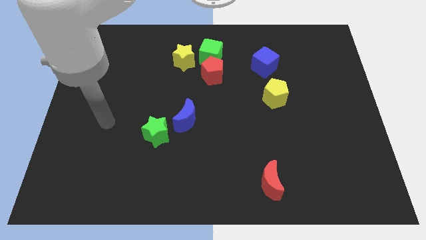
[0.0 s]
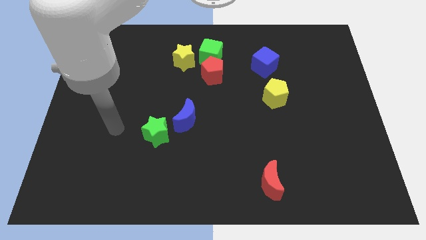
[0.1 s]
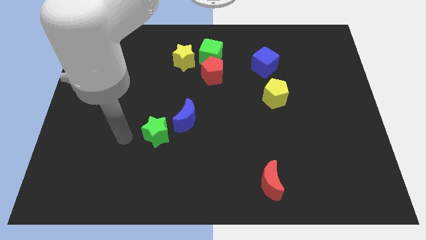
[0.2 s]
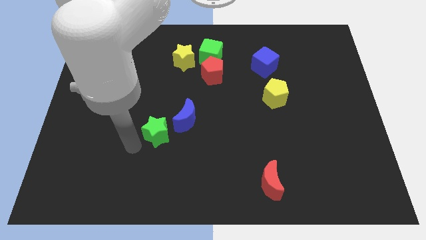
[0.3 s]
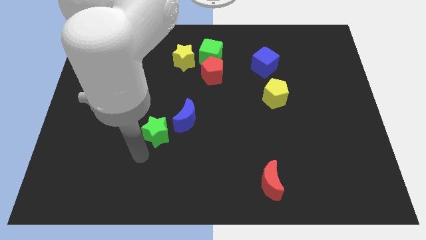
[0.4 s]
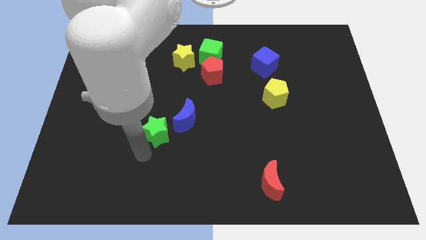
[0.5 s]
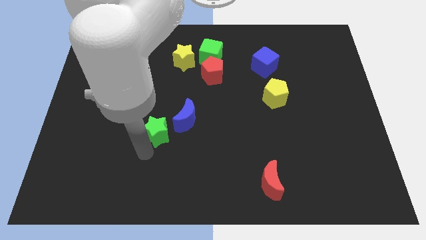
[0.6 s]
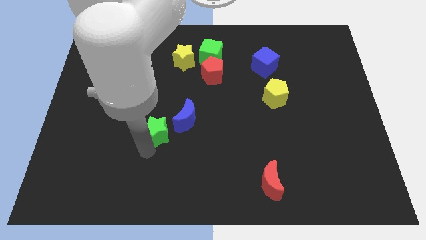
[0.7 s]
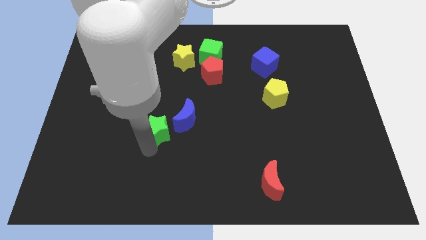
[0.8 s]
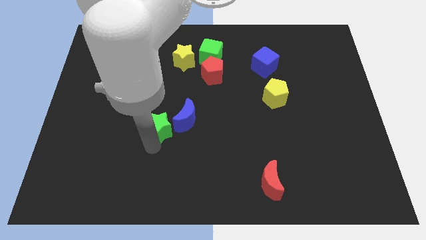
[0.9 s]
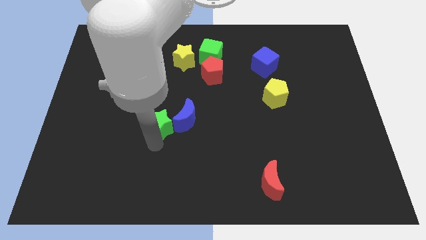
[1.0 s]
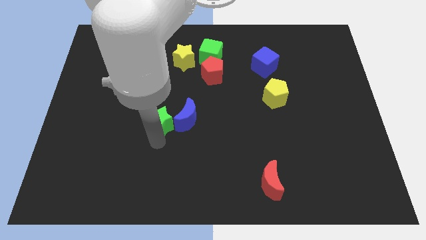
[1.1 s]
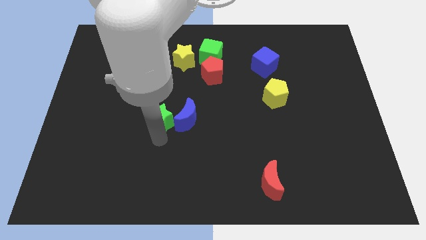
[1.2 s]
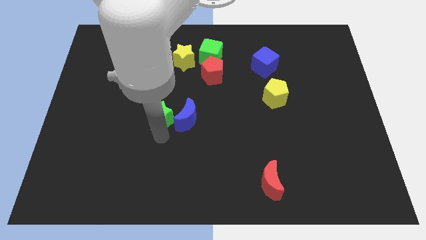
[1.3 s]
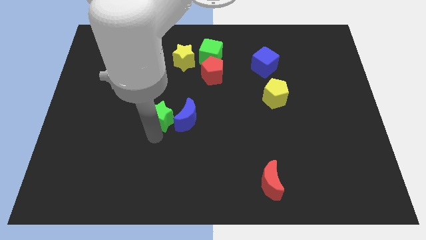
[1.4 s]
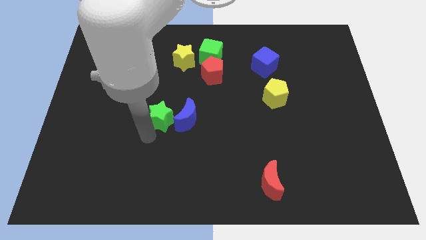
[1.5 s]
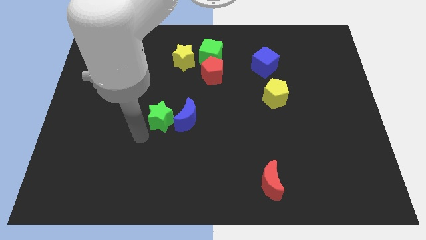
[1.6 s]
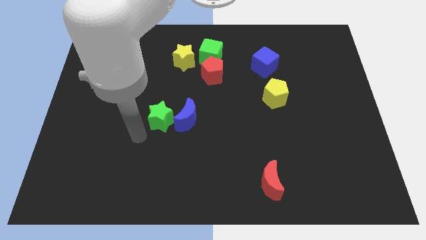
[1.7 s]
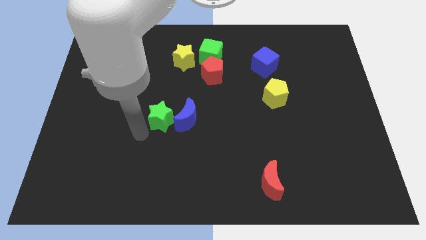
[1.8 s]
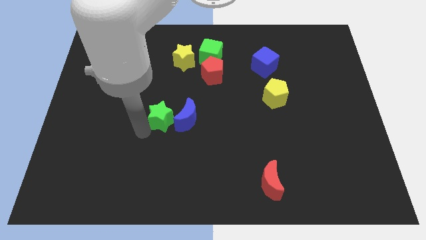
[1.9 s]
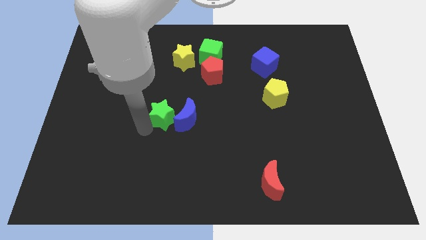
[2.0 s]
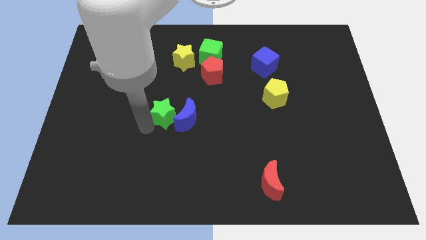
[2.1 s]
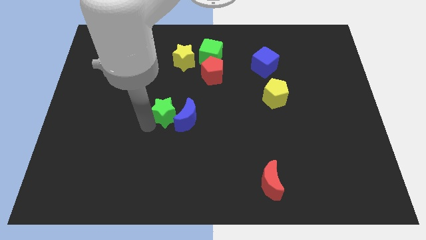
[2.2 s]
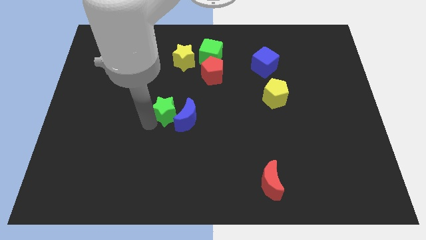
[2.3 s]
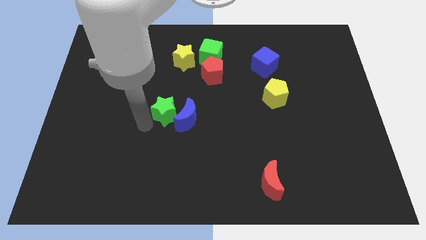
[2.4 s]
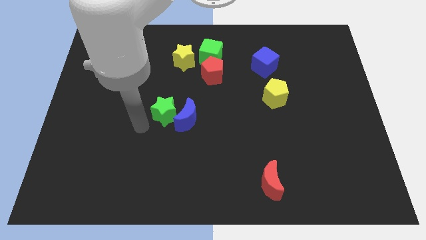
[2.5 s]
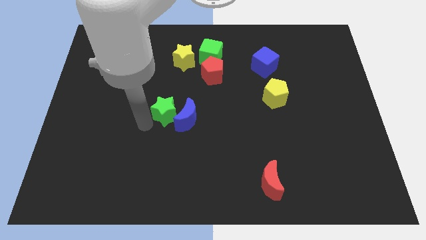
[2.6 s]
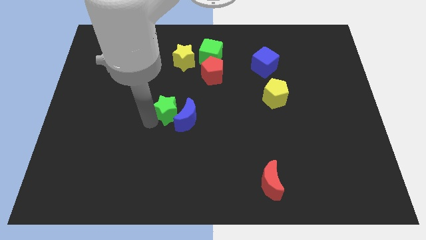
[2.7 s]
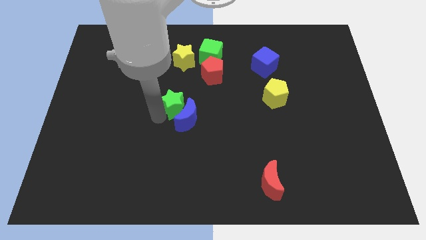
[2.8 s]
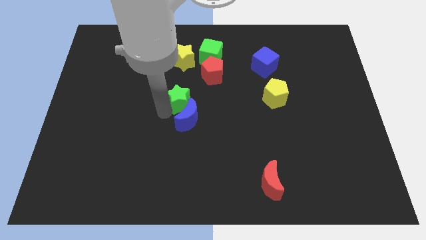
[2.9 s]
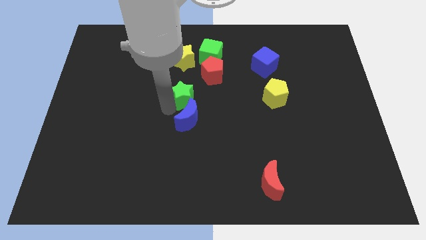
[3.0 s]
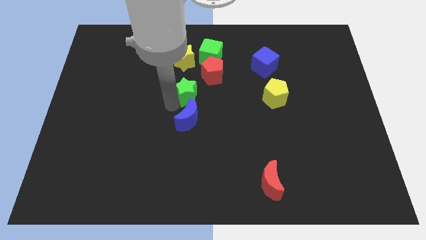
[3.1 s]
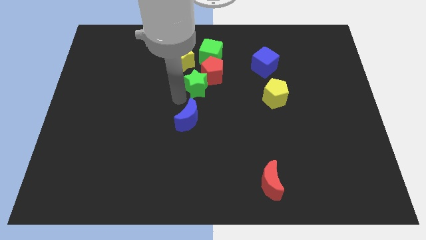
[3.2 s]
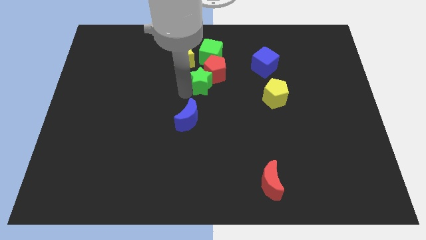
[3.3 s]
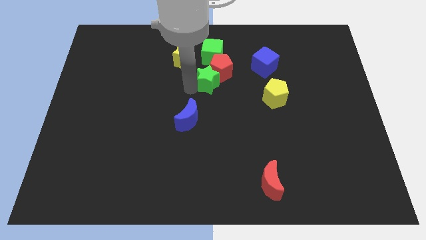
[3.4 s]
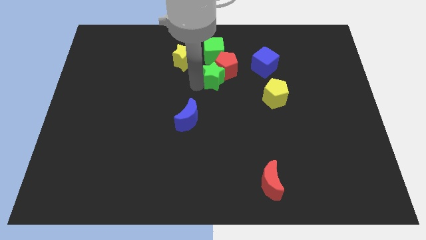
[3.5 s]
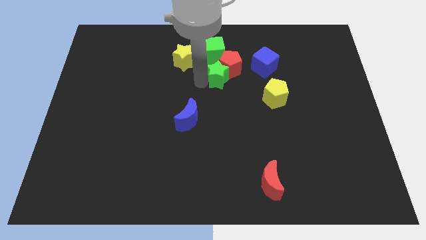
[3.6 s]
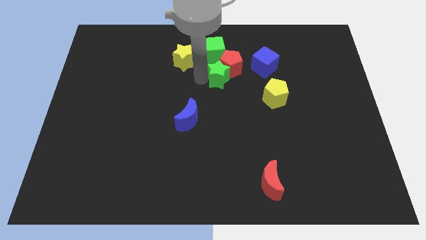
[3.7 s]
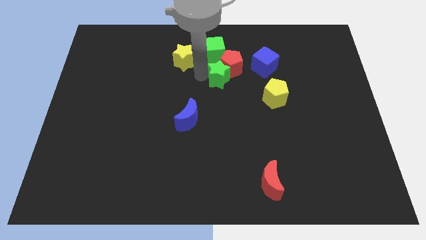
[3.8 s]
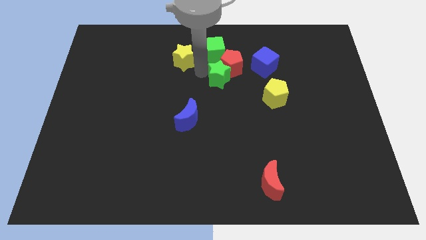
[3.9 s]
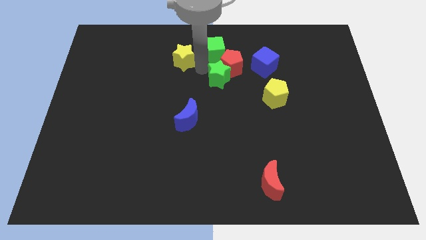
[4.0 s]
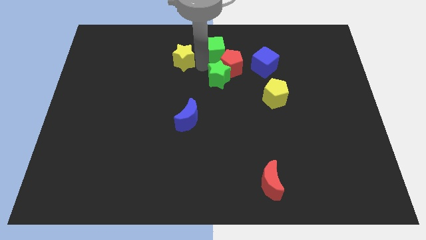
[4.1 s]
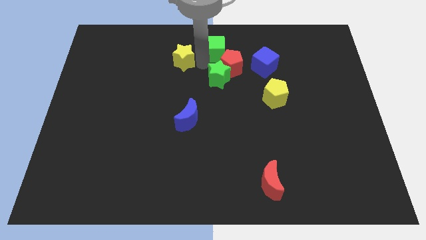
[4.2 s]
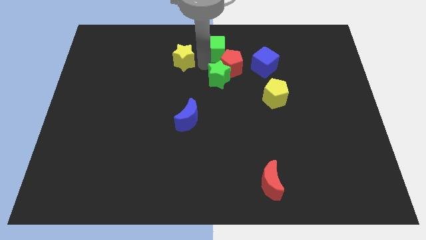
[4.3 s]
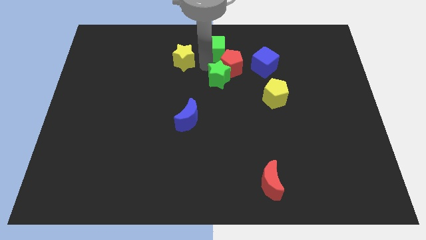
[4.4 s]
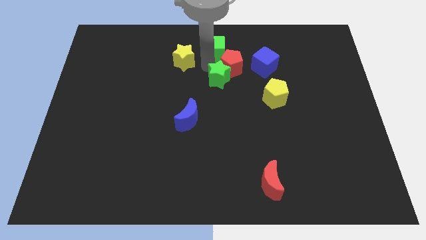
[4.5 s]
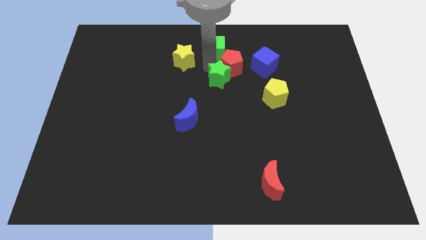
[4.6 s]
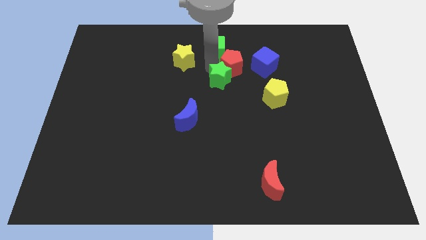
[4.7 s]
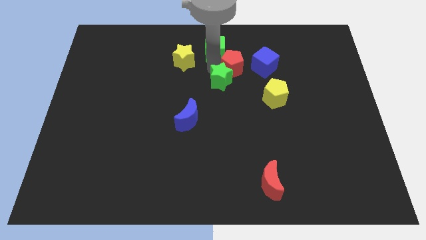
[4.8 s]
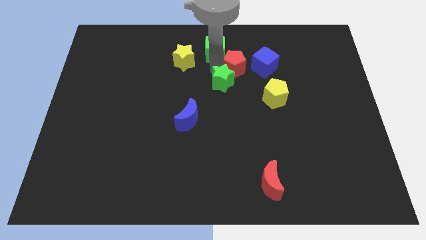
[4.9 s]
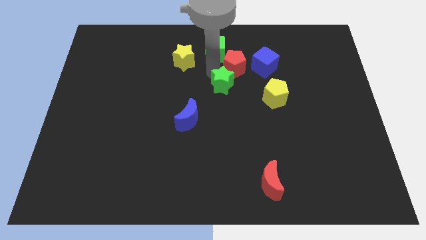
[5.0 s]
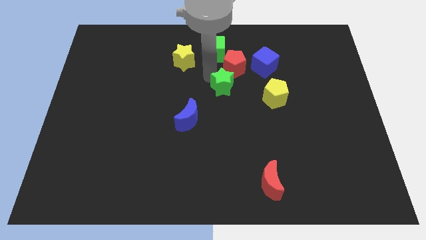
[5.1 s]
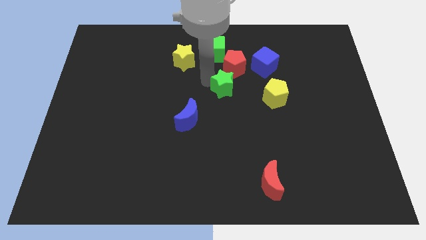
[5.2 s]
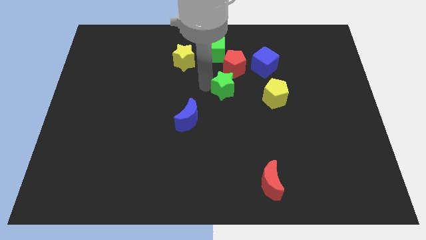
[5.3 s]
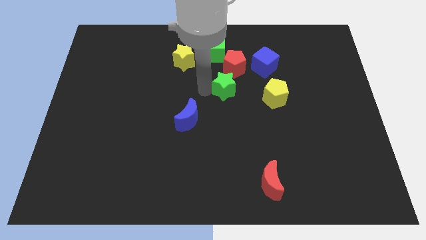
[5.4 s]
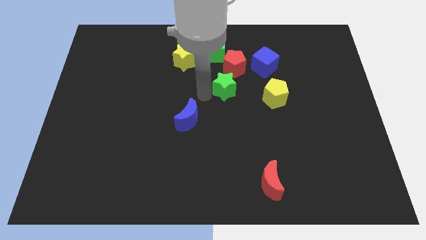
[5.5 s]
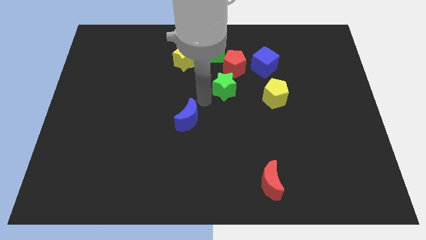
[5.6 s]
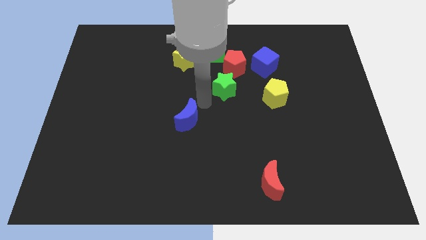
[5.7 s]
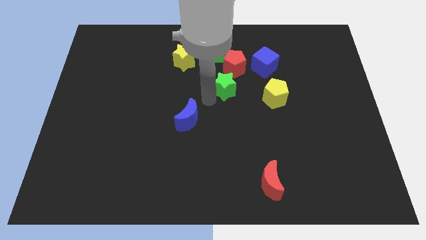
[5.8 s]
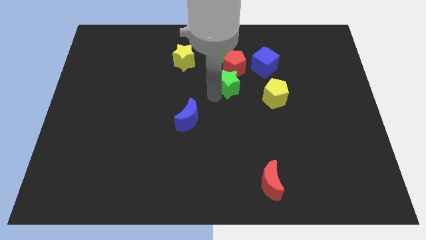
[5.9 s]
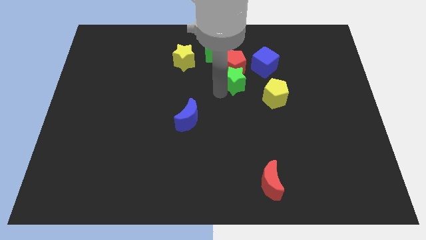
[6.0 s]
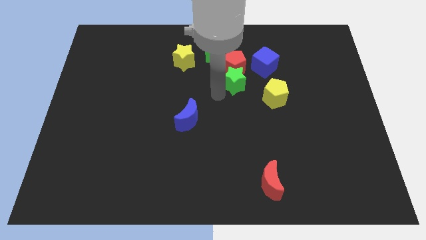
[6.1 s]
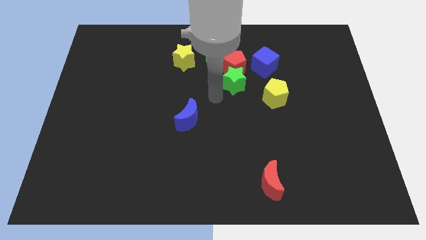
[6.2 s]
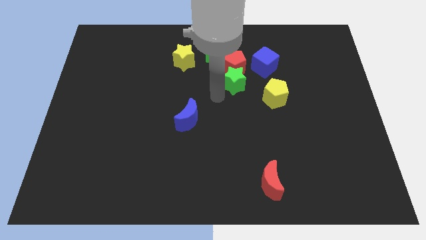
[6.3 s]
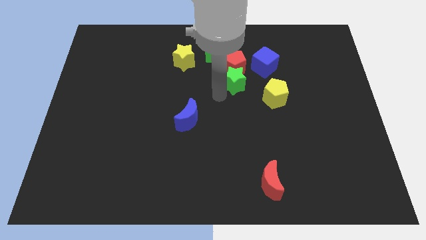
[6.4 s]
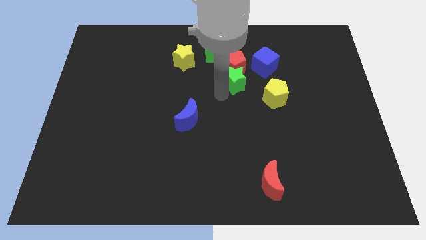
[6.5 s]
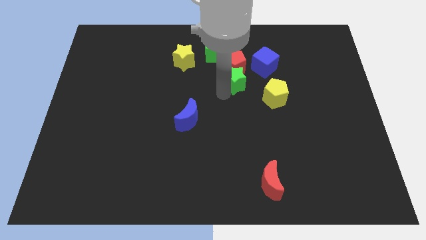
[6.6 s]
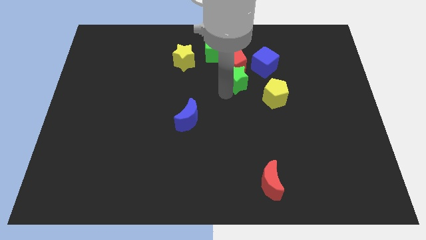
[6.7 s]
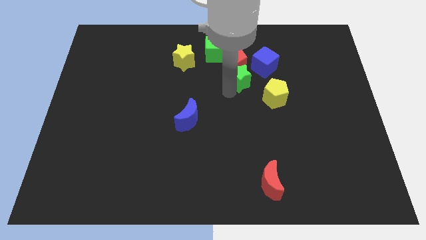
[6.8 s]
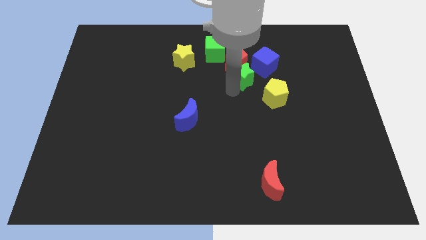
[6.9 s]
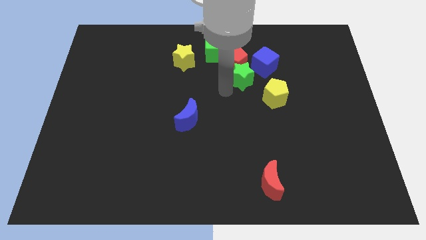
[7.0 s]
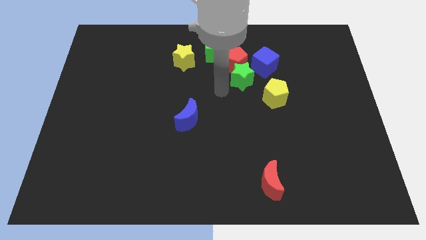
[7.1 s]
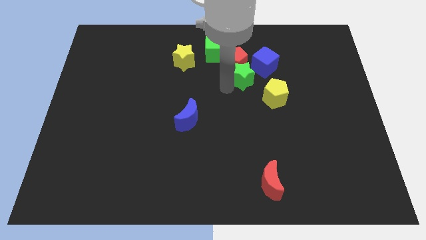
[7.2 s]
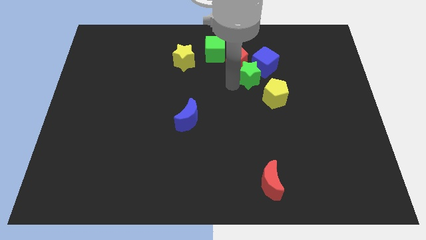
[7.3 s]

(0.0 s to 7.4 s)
move the green star close to the blue cube

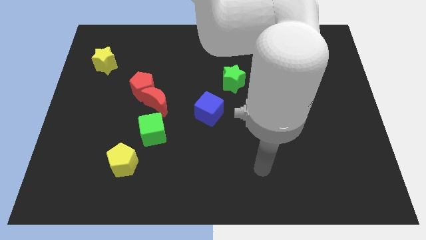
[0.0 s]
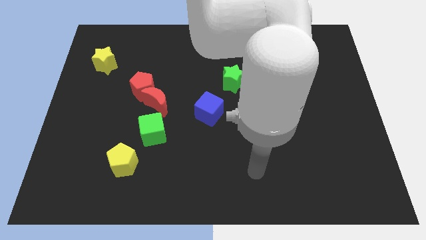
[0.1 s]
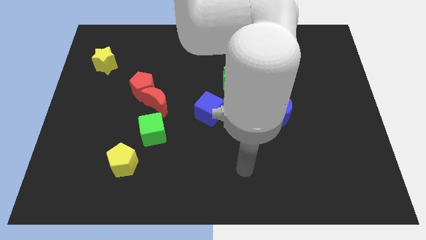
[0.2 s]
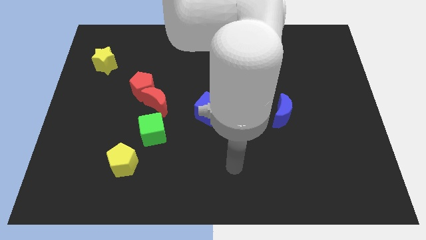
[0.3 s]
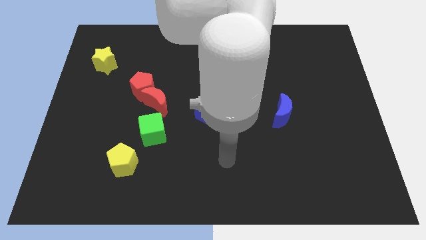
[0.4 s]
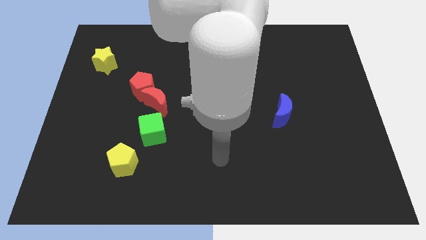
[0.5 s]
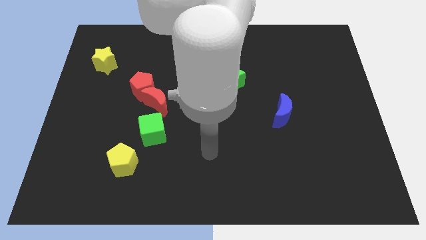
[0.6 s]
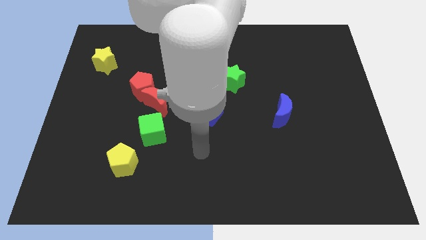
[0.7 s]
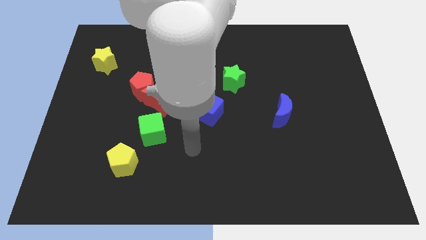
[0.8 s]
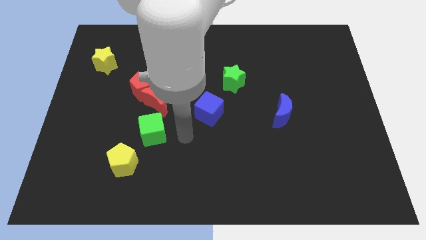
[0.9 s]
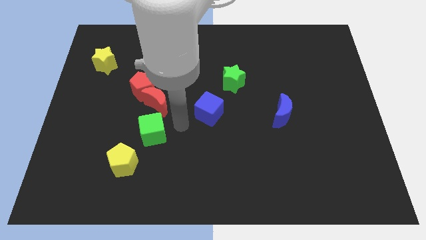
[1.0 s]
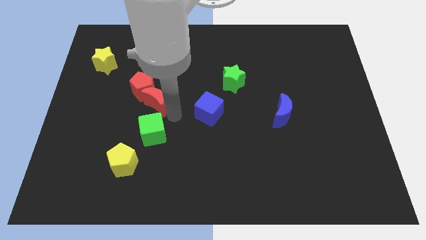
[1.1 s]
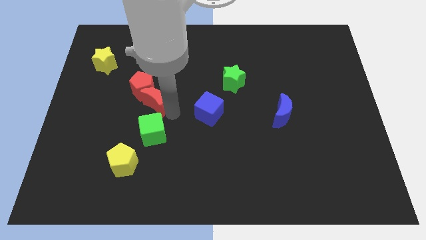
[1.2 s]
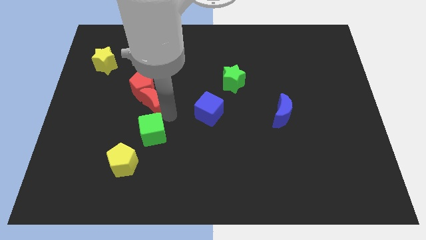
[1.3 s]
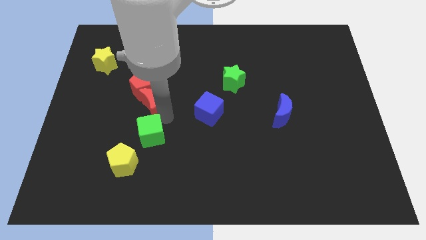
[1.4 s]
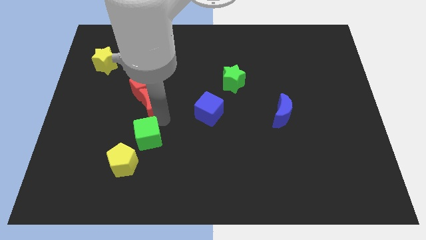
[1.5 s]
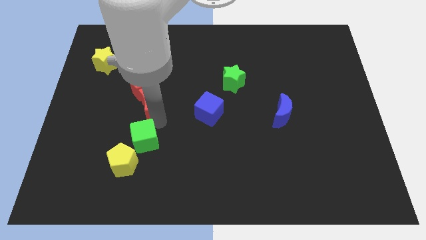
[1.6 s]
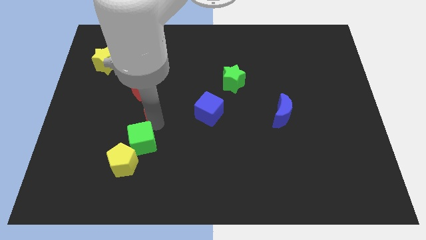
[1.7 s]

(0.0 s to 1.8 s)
slide the green cube towards the yellow pentagon
